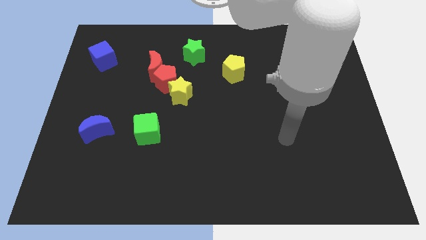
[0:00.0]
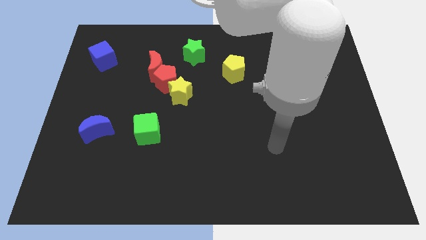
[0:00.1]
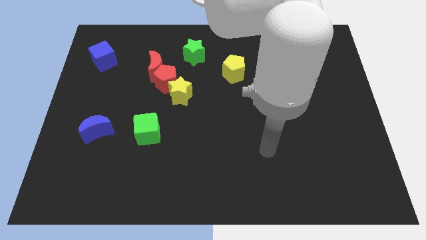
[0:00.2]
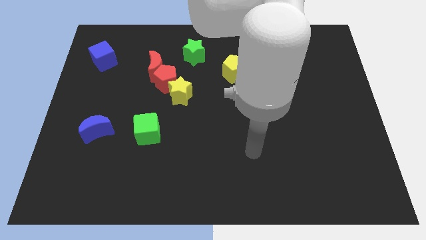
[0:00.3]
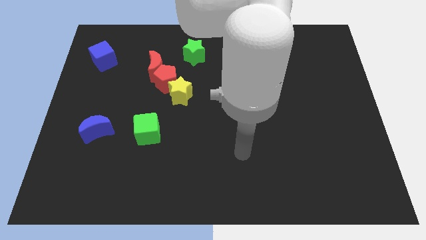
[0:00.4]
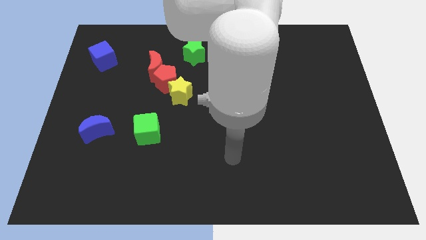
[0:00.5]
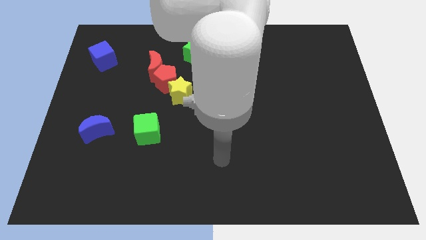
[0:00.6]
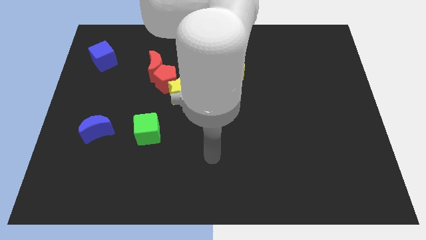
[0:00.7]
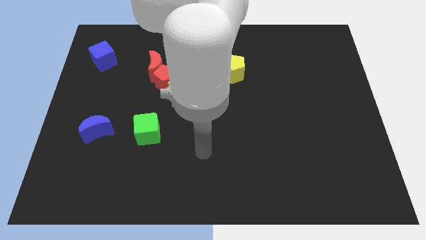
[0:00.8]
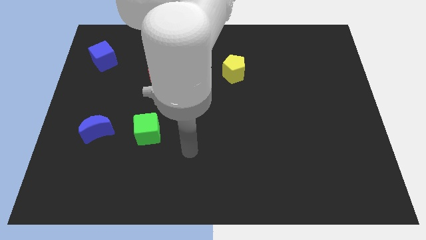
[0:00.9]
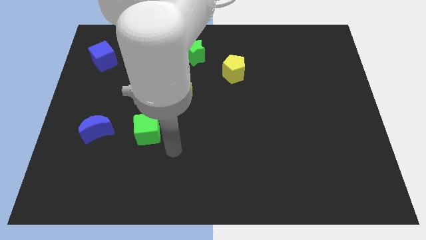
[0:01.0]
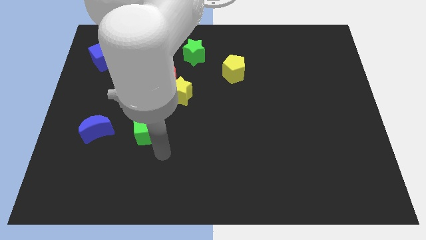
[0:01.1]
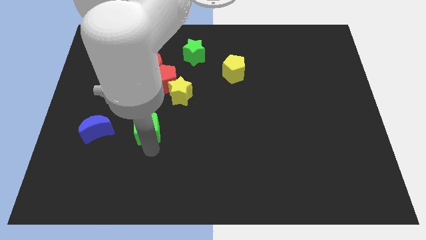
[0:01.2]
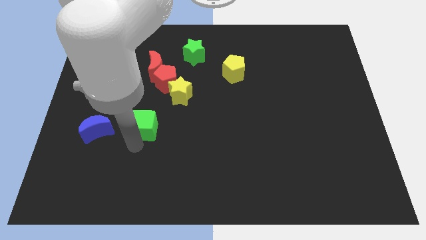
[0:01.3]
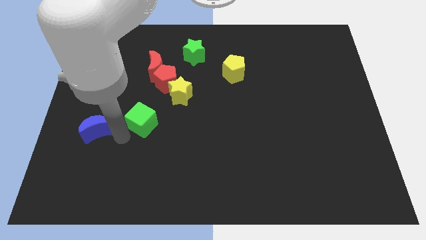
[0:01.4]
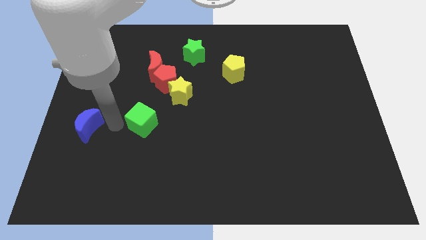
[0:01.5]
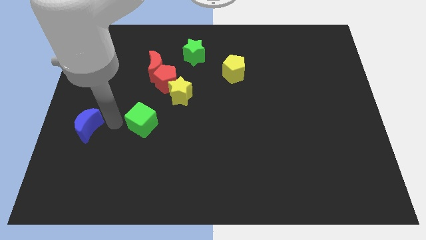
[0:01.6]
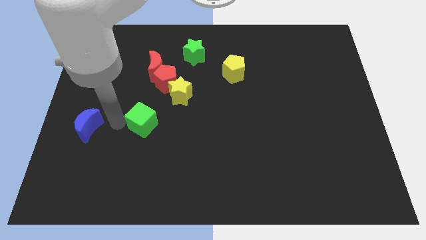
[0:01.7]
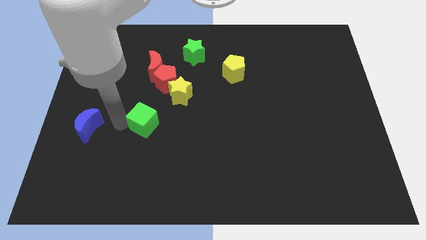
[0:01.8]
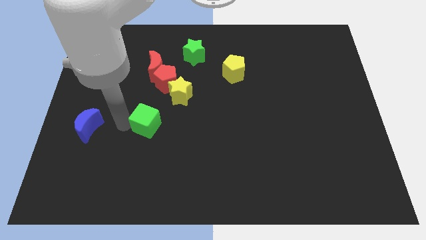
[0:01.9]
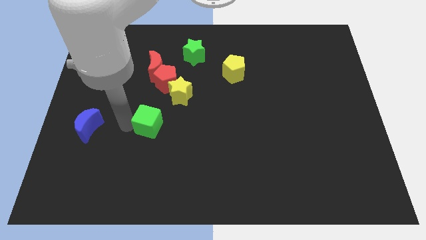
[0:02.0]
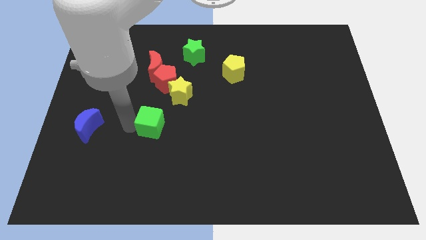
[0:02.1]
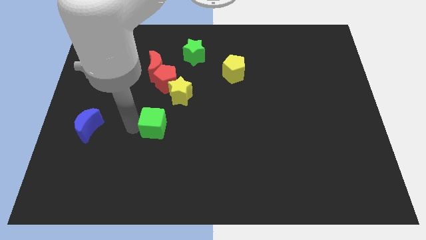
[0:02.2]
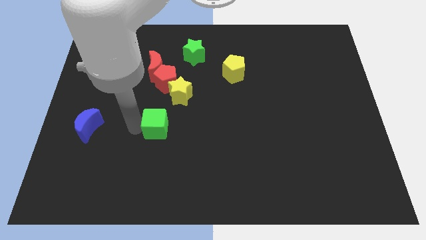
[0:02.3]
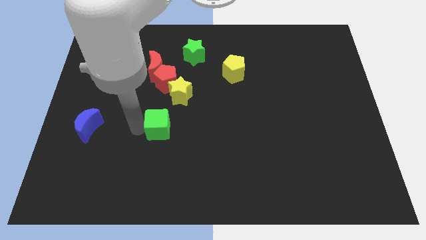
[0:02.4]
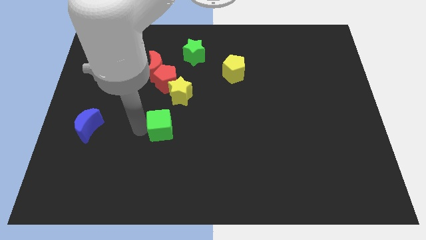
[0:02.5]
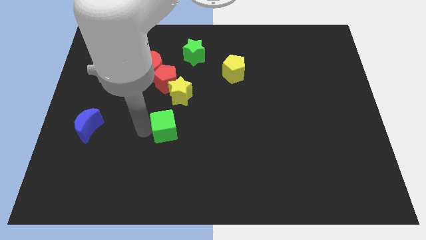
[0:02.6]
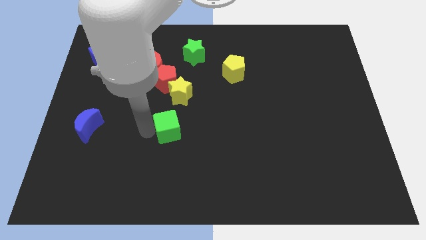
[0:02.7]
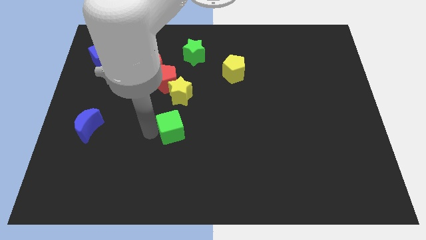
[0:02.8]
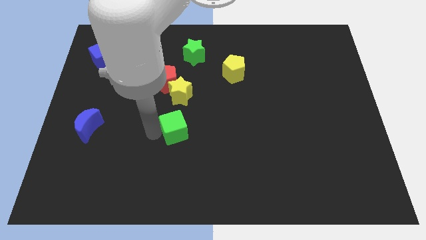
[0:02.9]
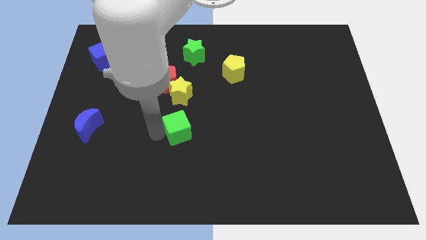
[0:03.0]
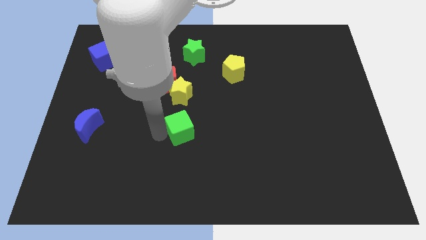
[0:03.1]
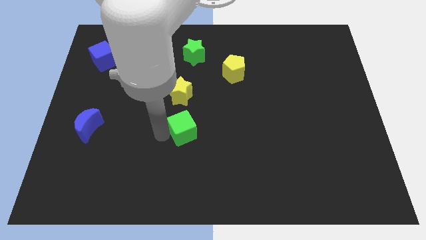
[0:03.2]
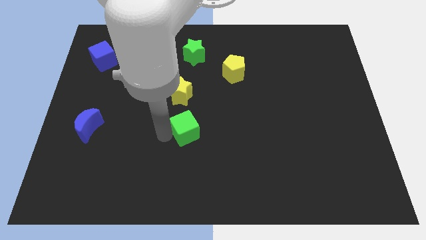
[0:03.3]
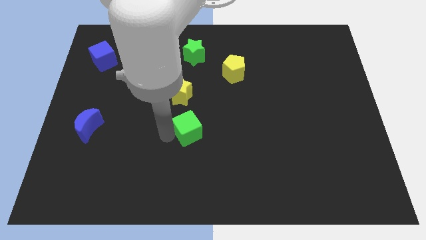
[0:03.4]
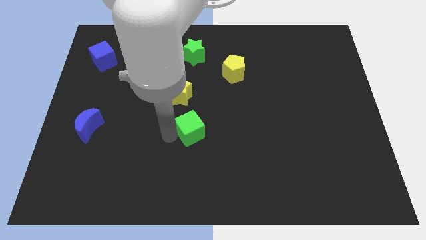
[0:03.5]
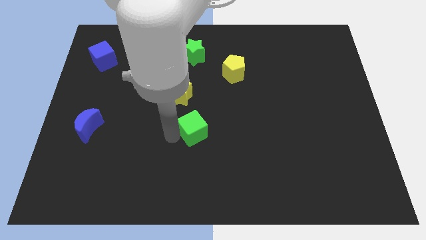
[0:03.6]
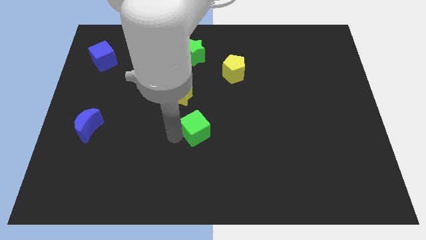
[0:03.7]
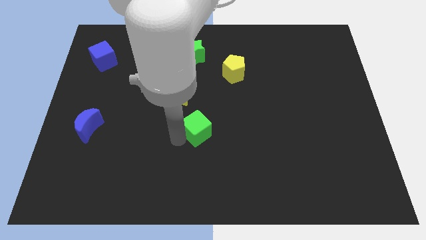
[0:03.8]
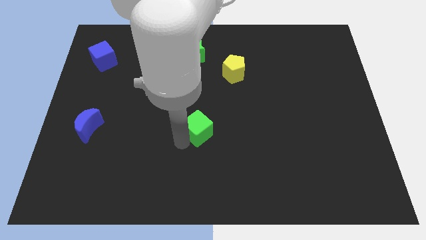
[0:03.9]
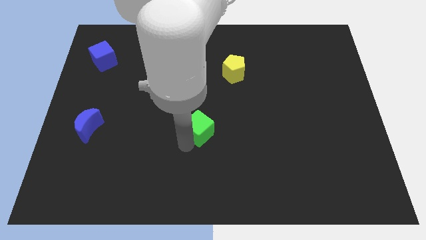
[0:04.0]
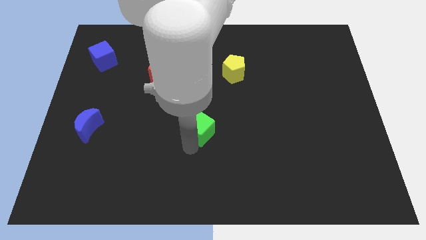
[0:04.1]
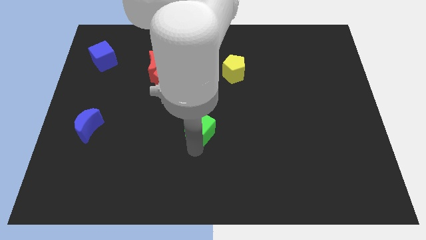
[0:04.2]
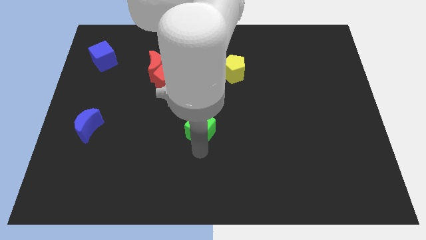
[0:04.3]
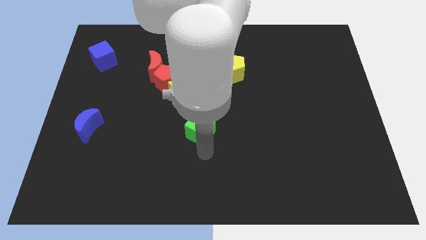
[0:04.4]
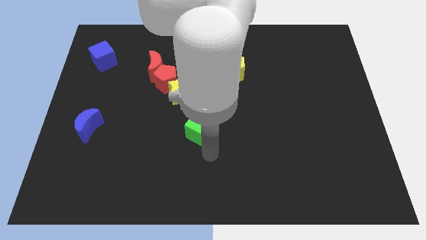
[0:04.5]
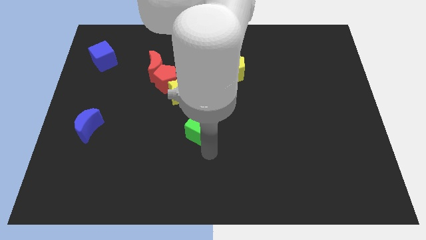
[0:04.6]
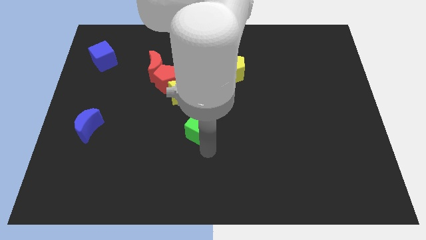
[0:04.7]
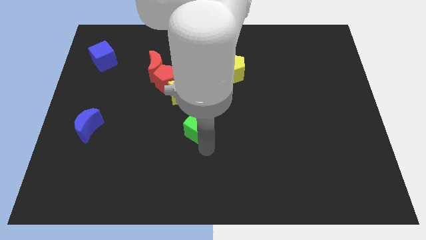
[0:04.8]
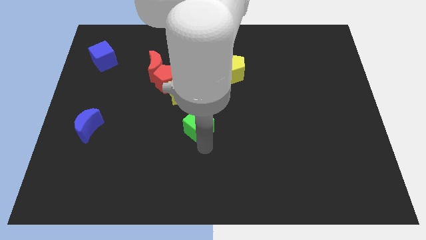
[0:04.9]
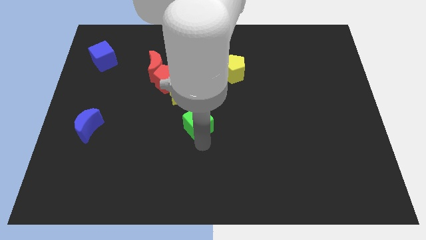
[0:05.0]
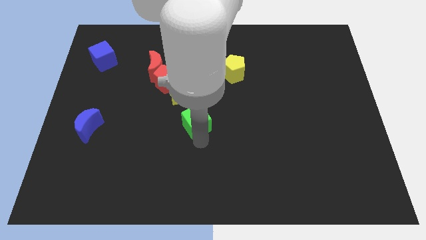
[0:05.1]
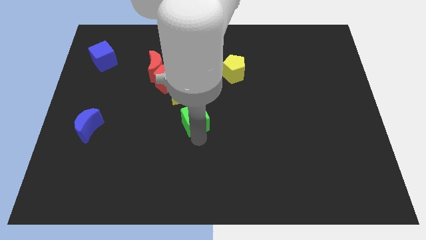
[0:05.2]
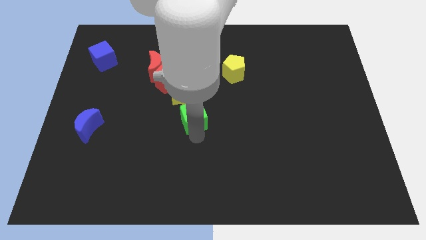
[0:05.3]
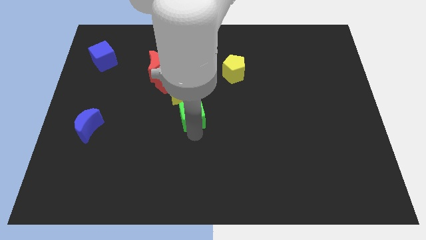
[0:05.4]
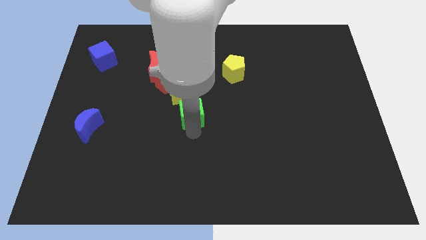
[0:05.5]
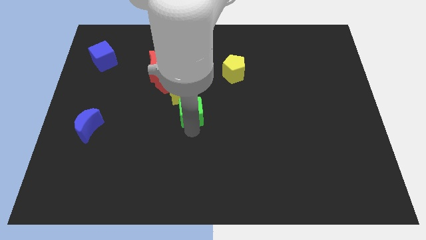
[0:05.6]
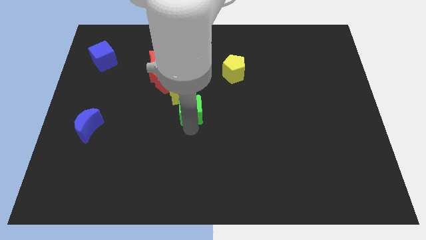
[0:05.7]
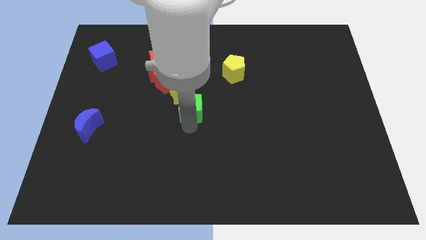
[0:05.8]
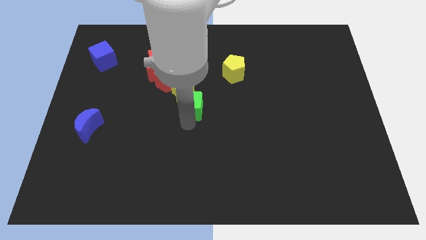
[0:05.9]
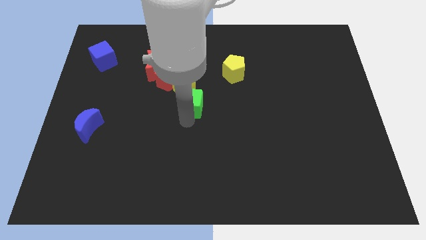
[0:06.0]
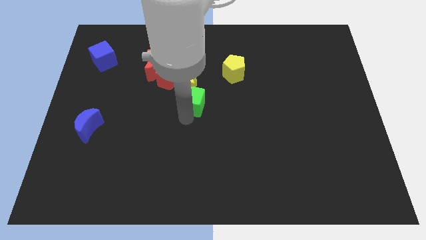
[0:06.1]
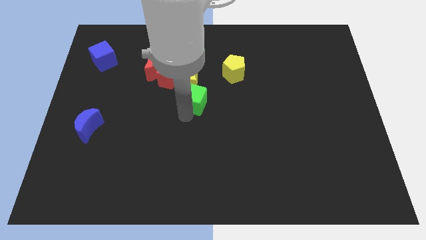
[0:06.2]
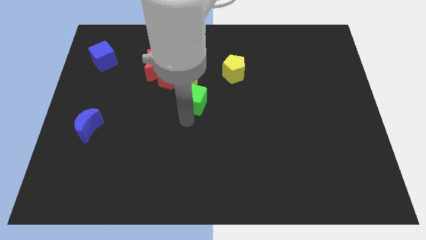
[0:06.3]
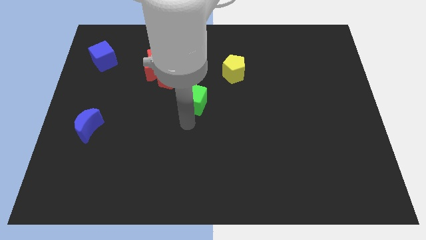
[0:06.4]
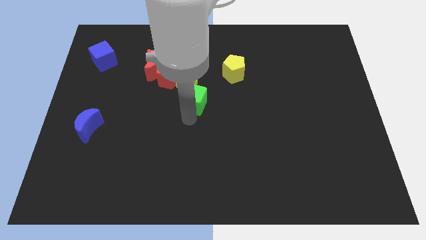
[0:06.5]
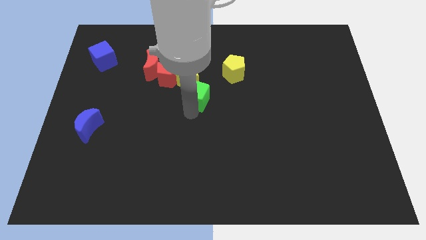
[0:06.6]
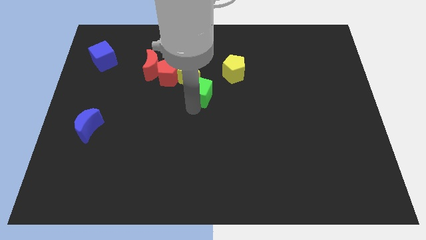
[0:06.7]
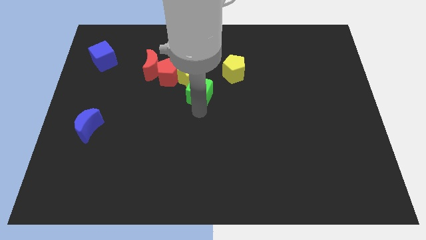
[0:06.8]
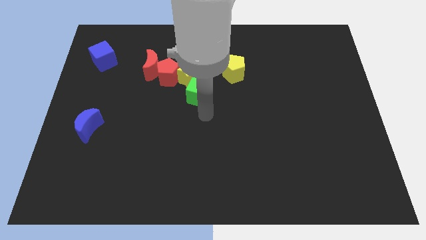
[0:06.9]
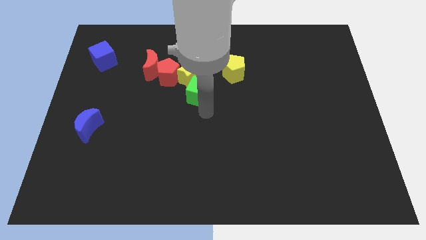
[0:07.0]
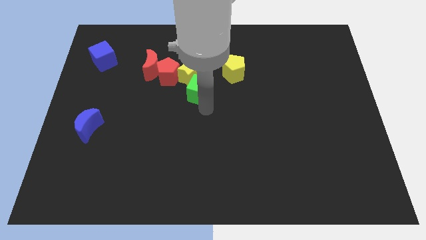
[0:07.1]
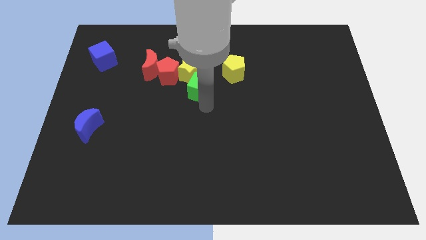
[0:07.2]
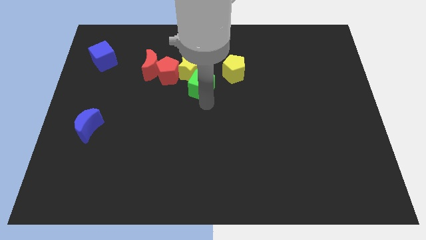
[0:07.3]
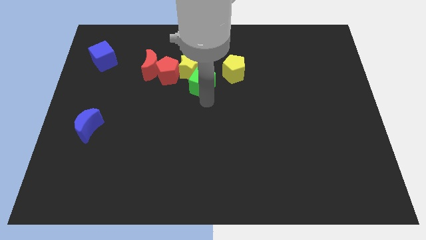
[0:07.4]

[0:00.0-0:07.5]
slide the green cube to the left side of the yellow pentagon

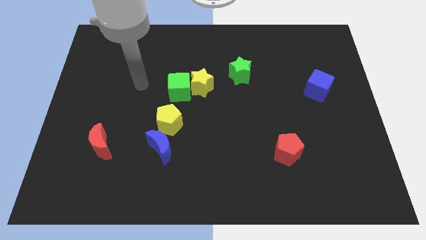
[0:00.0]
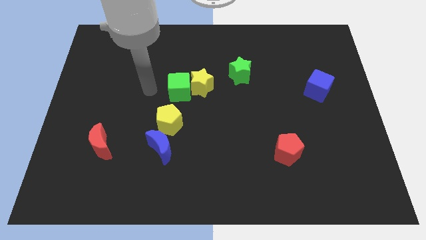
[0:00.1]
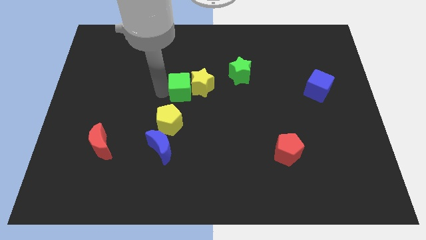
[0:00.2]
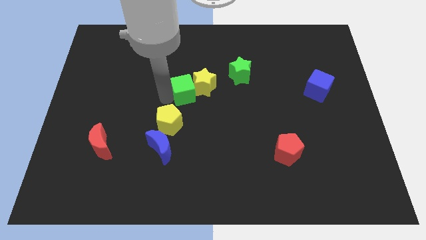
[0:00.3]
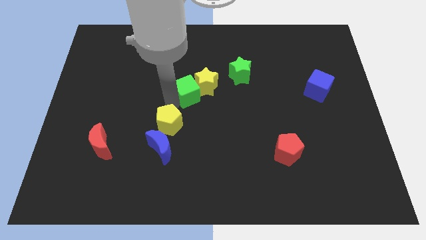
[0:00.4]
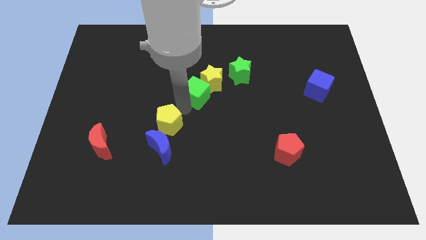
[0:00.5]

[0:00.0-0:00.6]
push the yellow star above the green cube
